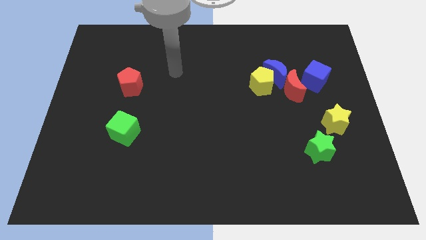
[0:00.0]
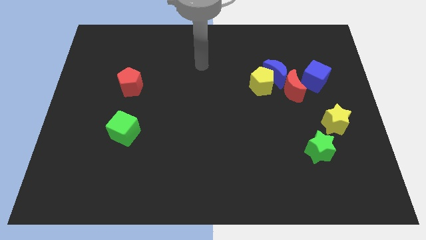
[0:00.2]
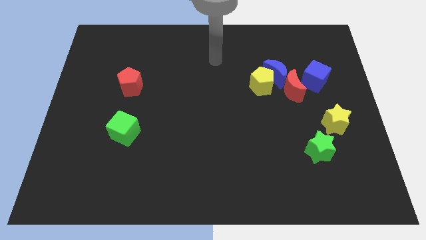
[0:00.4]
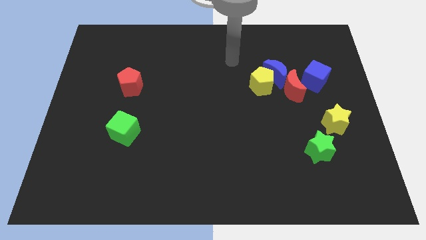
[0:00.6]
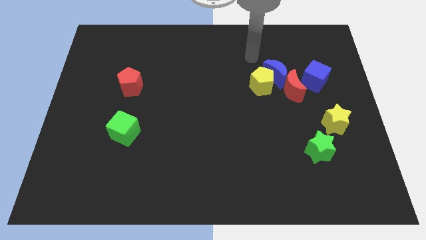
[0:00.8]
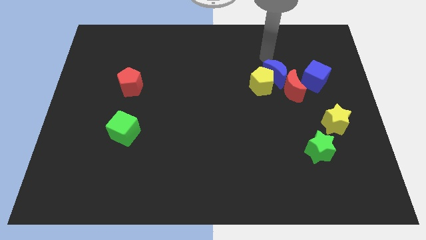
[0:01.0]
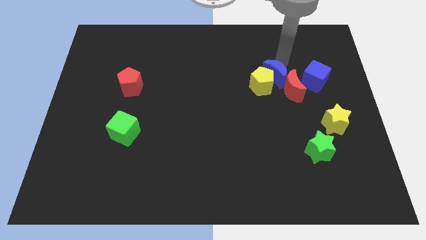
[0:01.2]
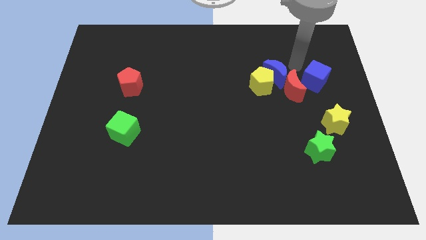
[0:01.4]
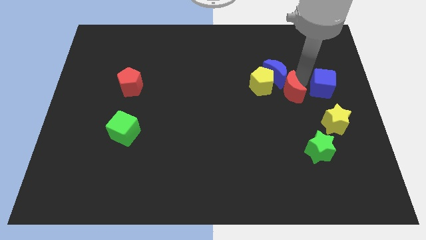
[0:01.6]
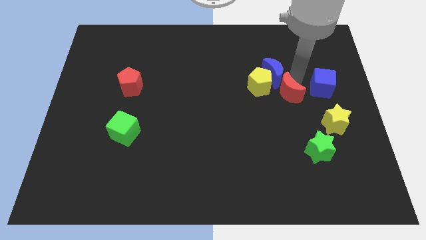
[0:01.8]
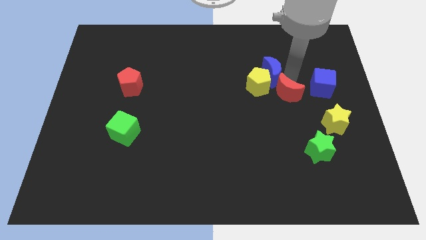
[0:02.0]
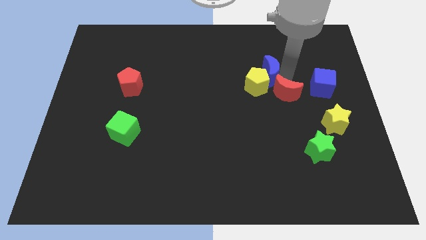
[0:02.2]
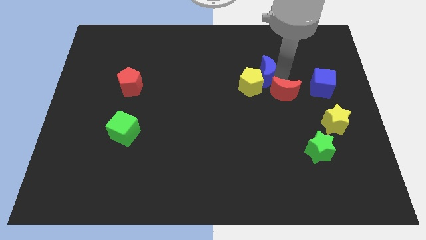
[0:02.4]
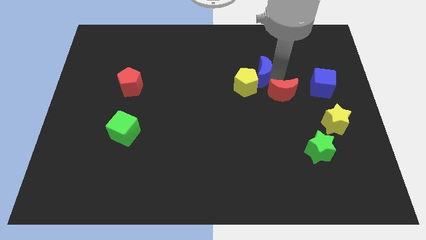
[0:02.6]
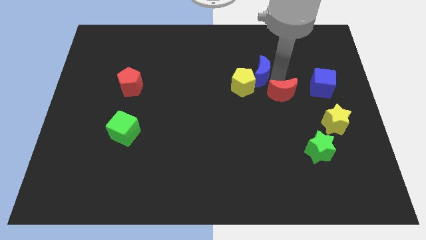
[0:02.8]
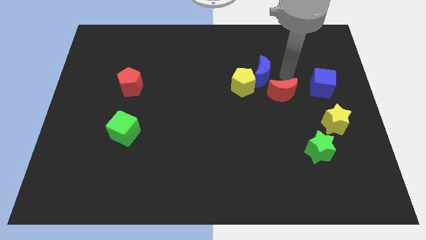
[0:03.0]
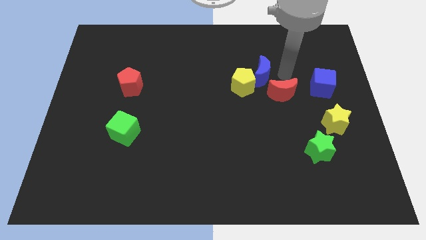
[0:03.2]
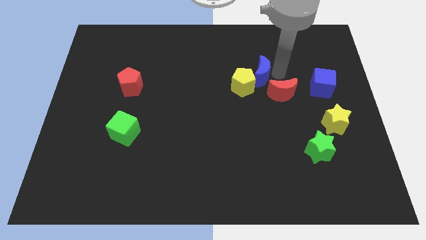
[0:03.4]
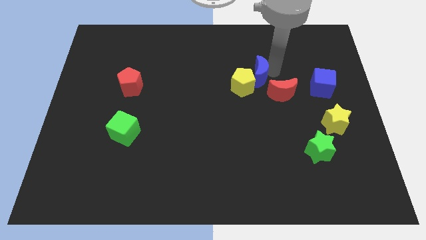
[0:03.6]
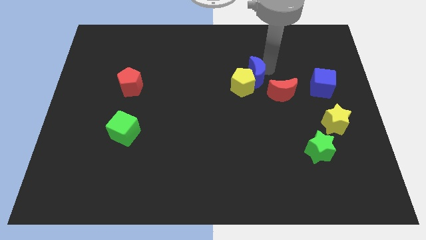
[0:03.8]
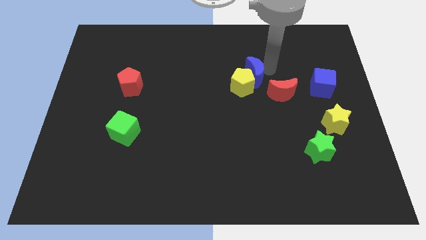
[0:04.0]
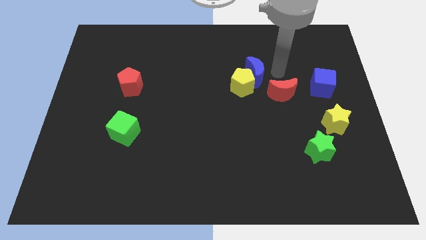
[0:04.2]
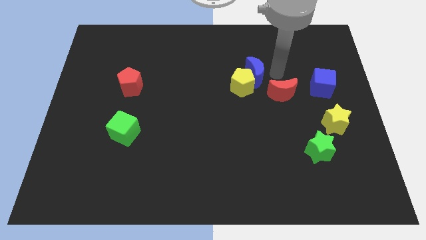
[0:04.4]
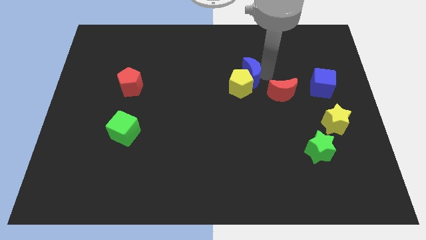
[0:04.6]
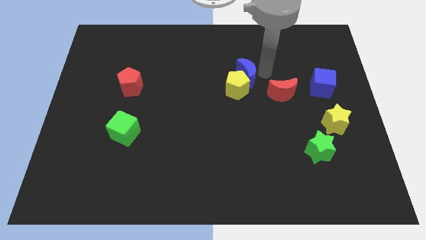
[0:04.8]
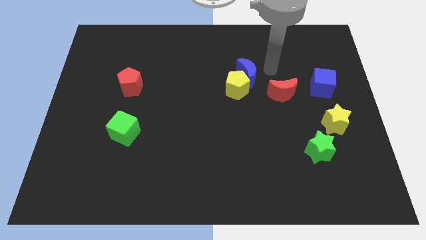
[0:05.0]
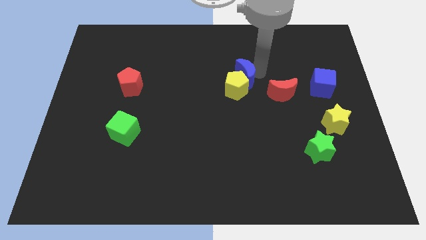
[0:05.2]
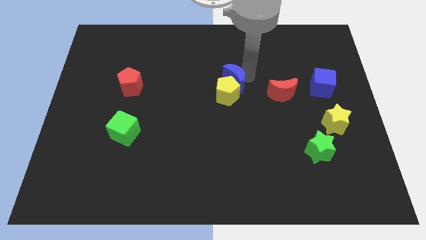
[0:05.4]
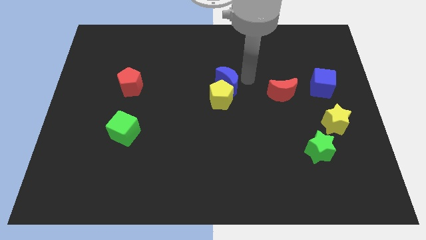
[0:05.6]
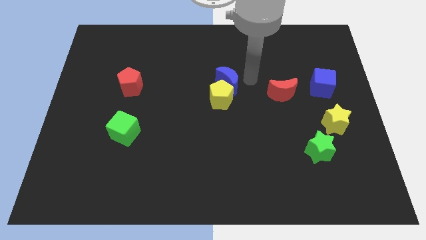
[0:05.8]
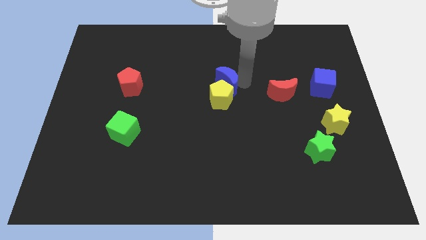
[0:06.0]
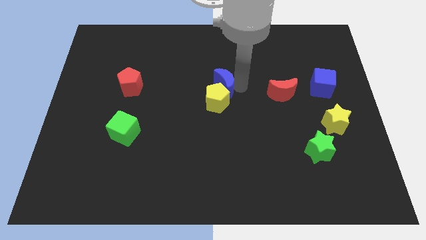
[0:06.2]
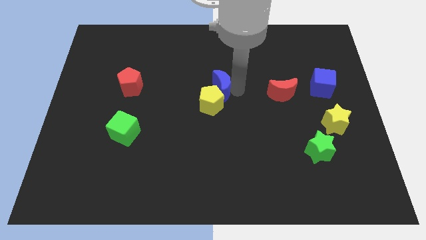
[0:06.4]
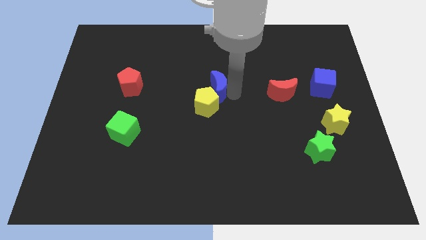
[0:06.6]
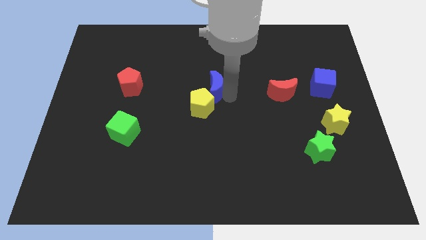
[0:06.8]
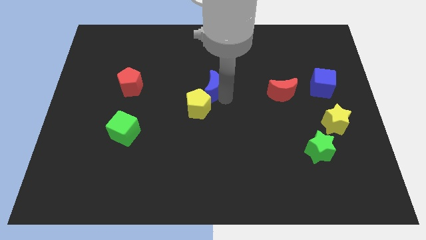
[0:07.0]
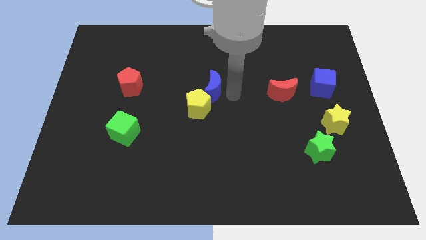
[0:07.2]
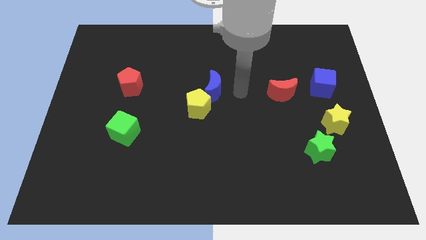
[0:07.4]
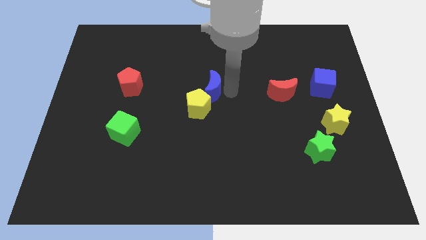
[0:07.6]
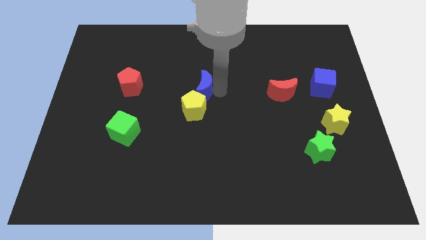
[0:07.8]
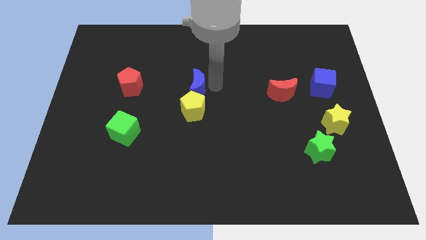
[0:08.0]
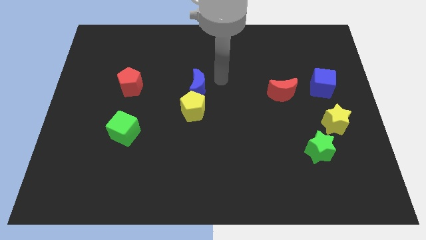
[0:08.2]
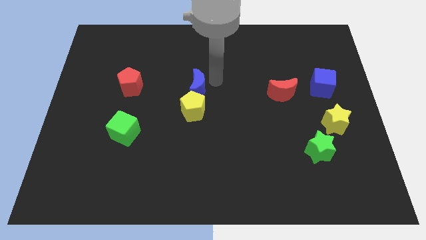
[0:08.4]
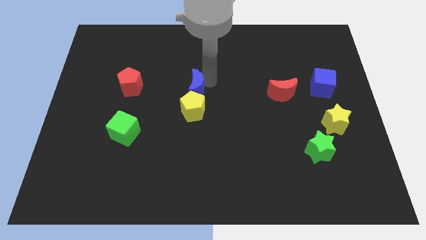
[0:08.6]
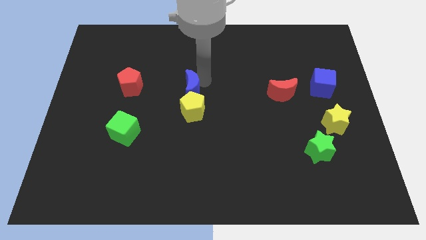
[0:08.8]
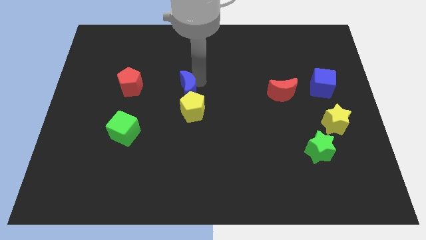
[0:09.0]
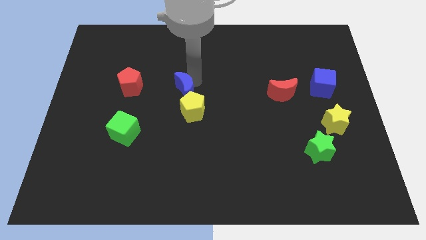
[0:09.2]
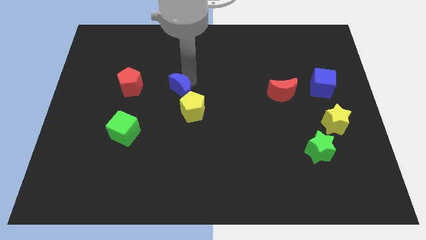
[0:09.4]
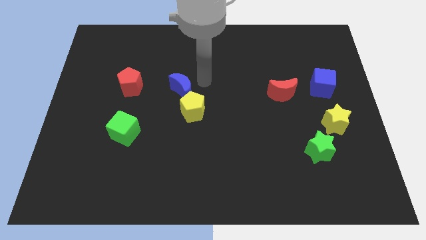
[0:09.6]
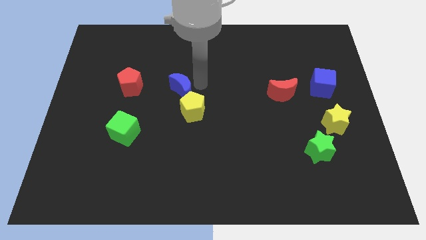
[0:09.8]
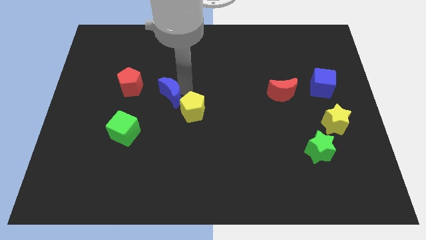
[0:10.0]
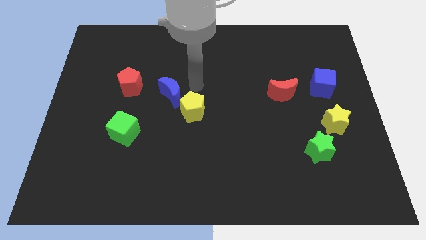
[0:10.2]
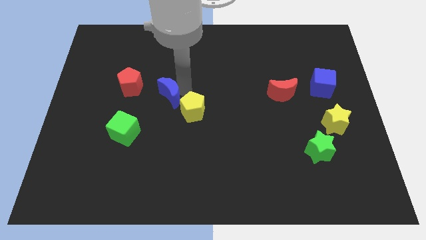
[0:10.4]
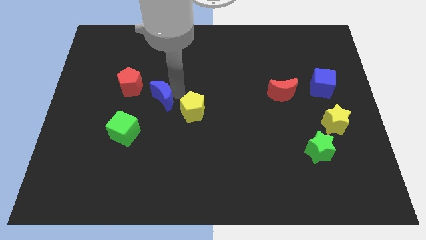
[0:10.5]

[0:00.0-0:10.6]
push the blue moon to the bottom right side of the red pentagon

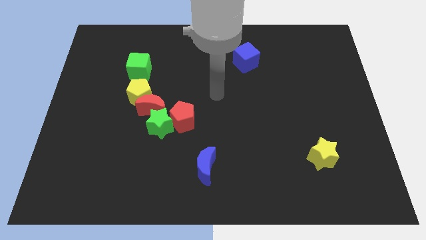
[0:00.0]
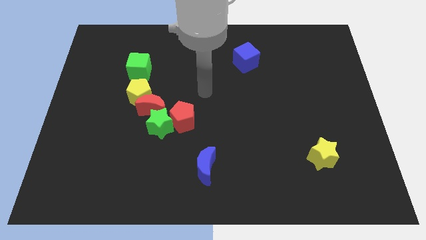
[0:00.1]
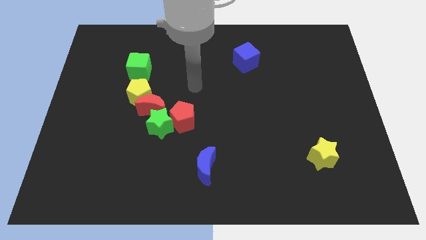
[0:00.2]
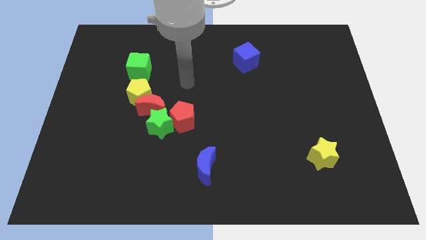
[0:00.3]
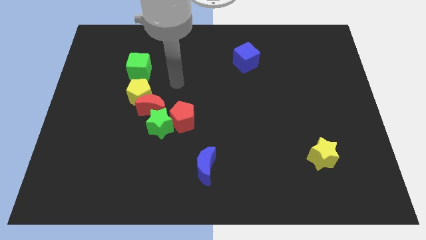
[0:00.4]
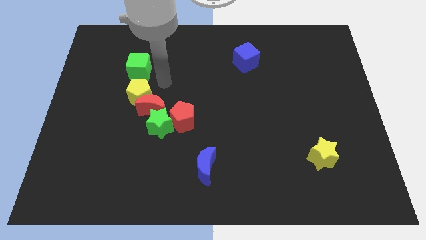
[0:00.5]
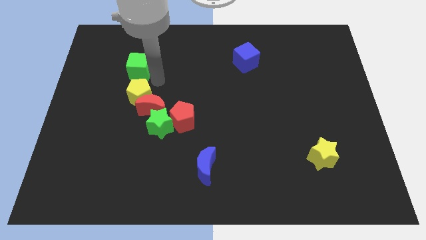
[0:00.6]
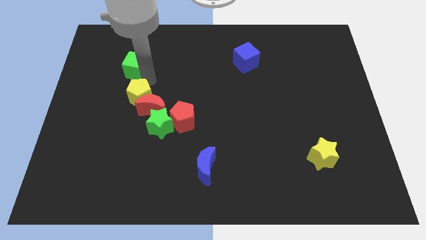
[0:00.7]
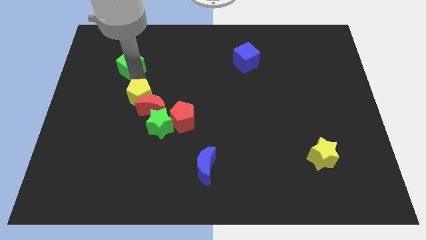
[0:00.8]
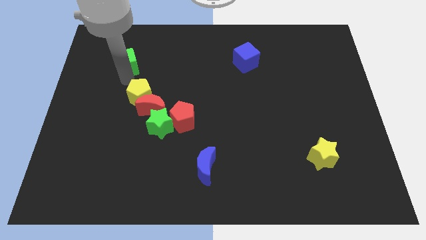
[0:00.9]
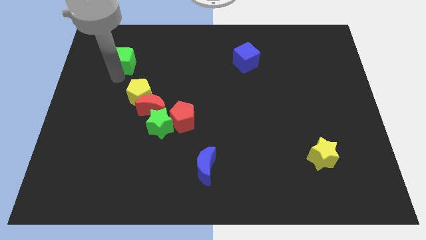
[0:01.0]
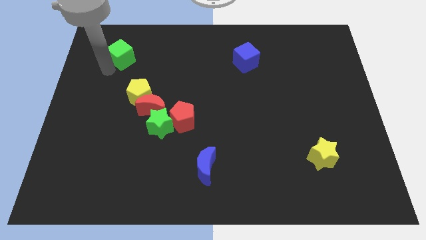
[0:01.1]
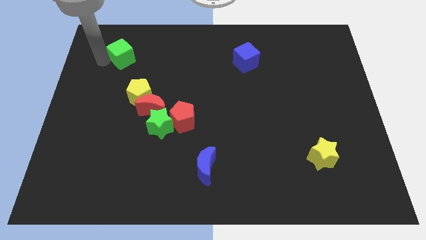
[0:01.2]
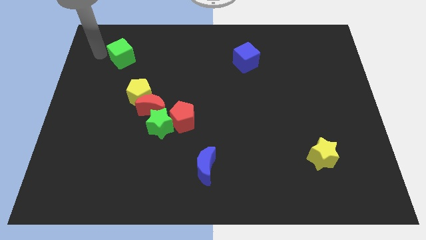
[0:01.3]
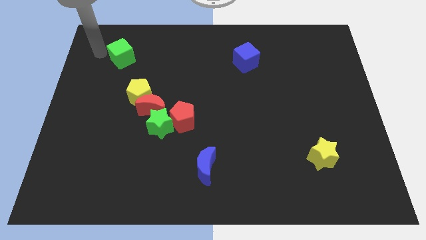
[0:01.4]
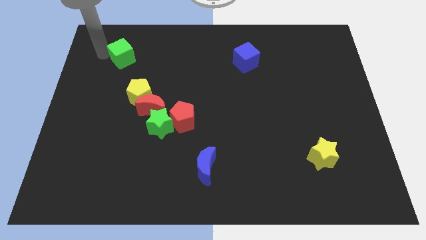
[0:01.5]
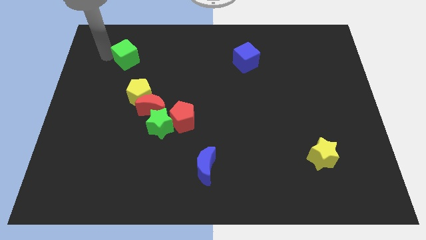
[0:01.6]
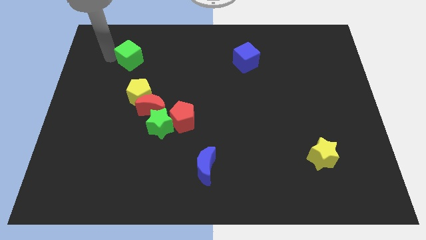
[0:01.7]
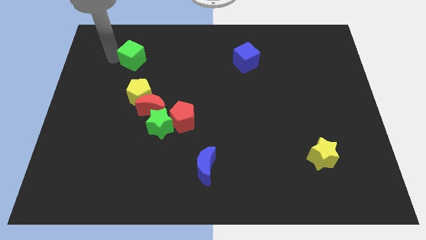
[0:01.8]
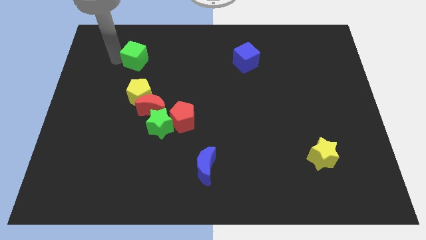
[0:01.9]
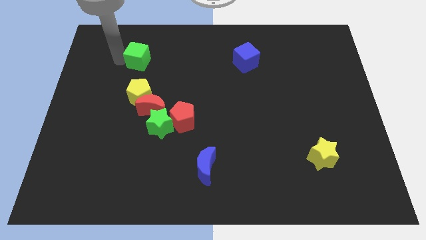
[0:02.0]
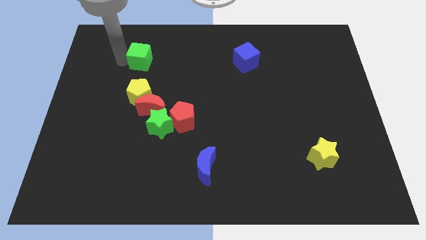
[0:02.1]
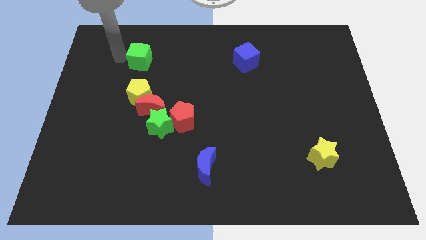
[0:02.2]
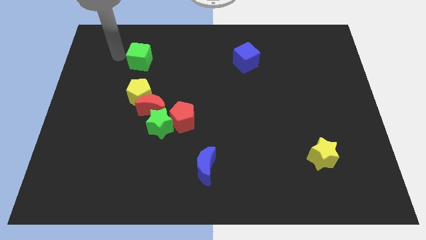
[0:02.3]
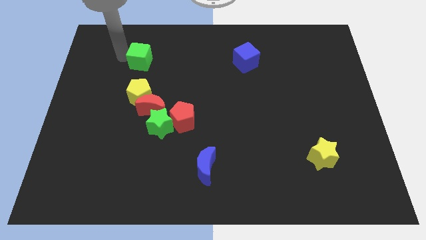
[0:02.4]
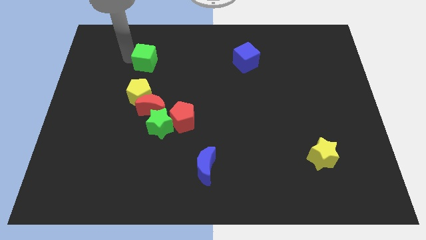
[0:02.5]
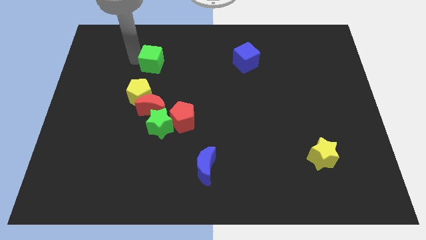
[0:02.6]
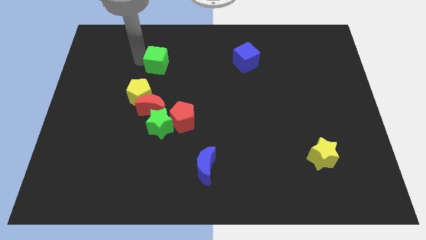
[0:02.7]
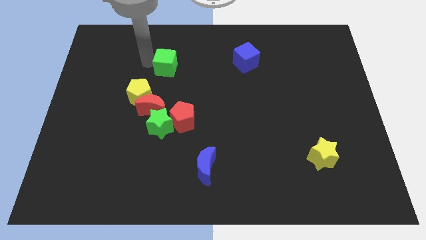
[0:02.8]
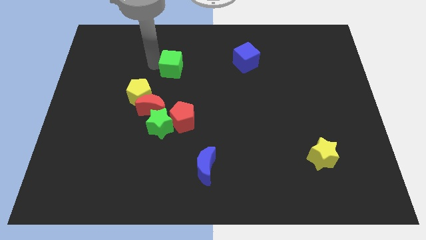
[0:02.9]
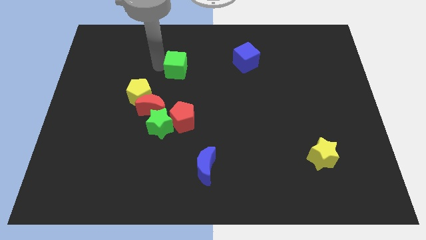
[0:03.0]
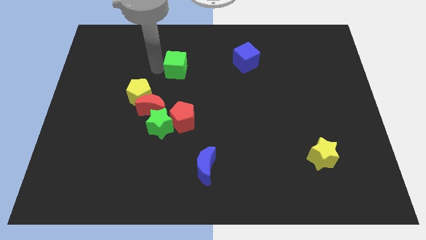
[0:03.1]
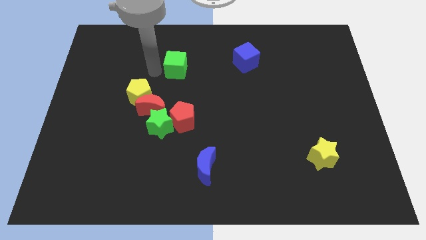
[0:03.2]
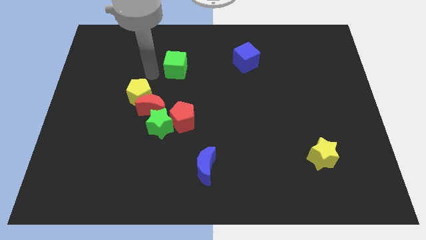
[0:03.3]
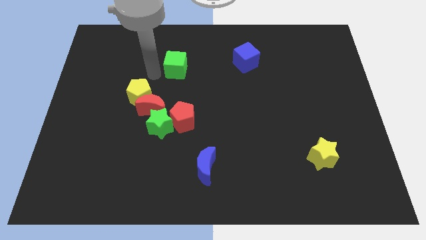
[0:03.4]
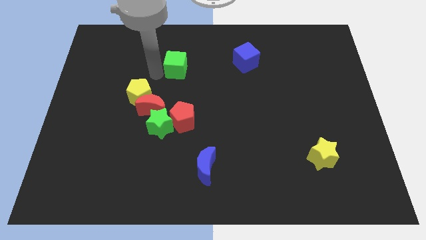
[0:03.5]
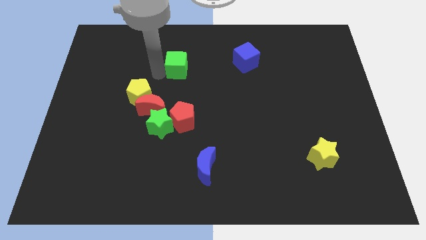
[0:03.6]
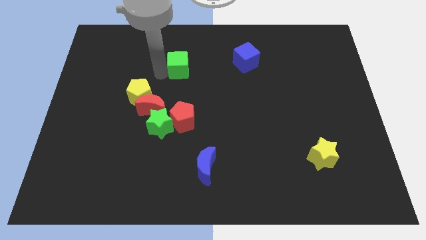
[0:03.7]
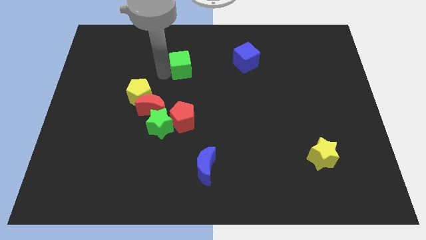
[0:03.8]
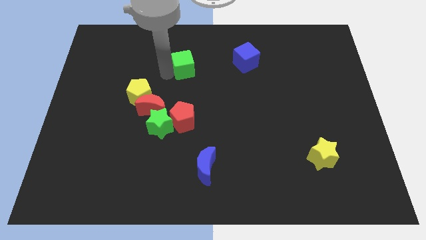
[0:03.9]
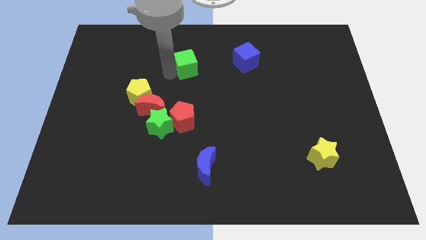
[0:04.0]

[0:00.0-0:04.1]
move the green cube just left of the blue cube
